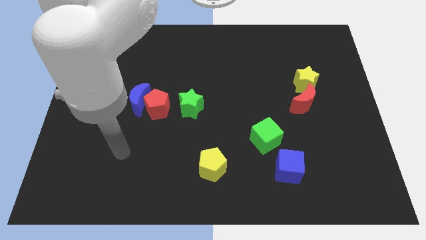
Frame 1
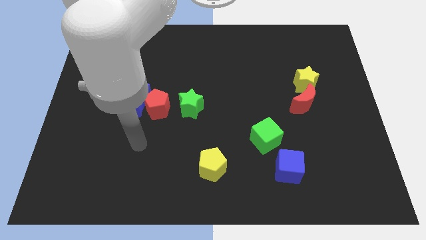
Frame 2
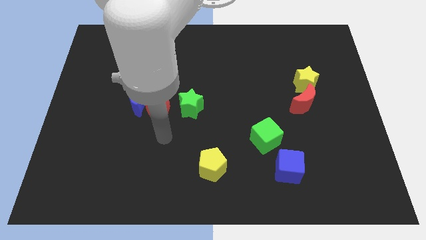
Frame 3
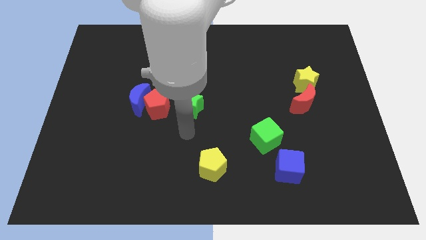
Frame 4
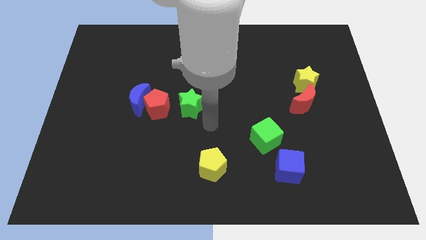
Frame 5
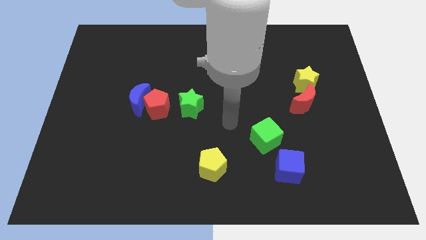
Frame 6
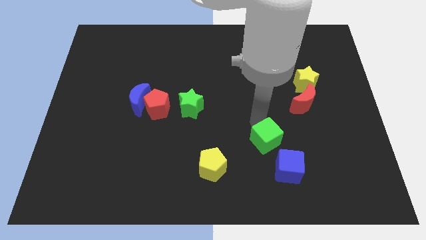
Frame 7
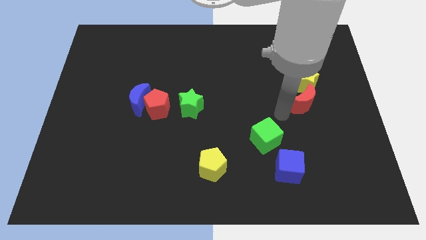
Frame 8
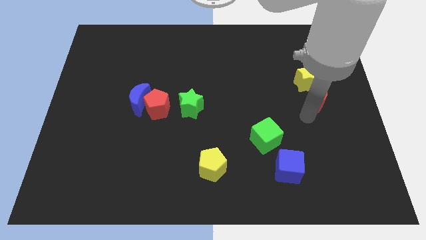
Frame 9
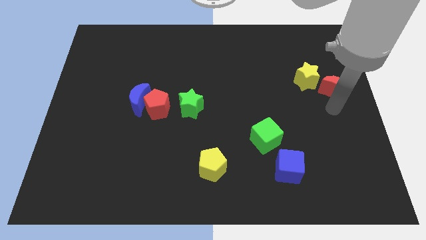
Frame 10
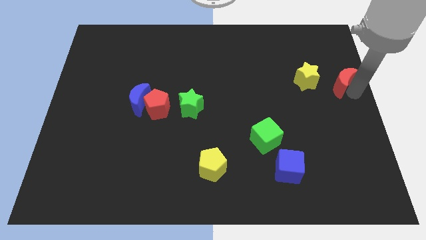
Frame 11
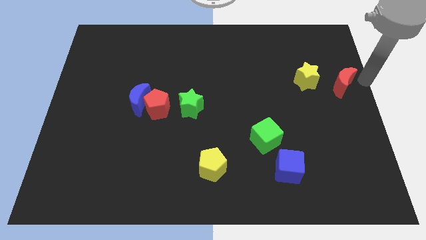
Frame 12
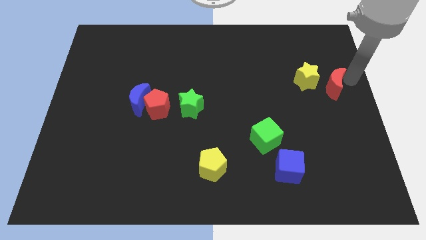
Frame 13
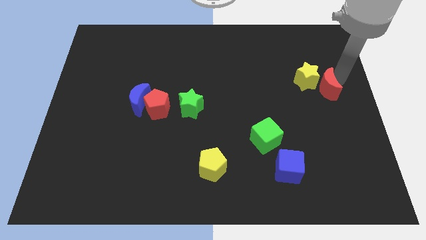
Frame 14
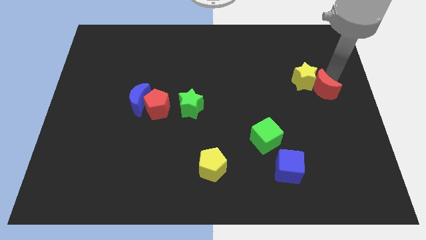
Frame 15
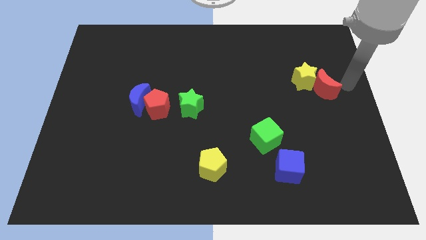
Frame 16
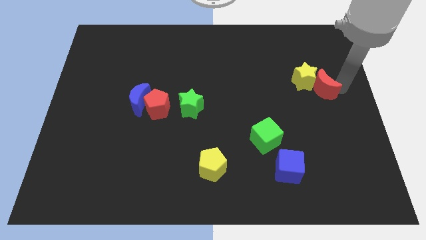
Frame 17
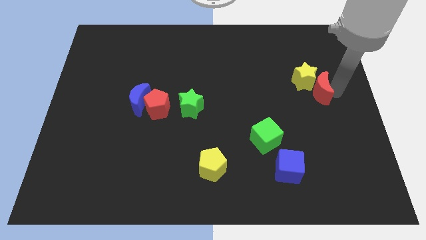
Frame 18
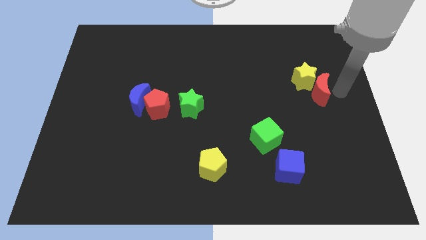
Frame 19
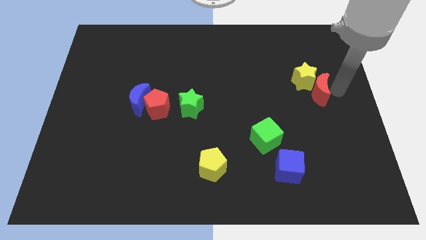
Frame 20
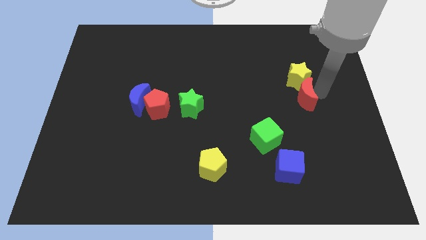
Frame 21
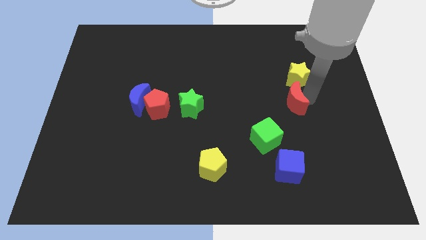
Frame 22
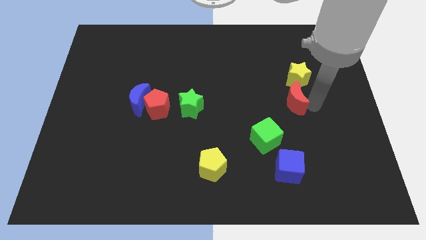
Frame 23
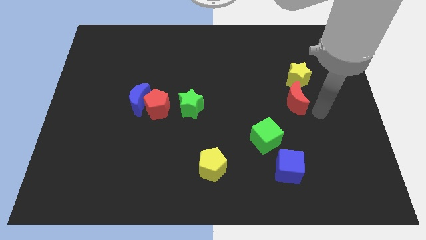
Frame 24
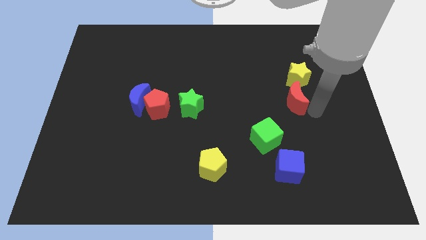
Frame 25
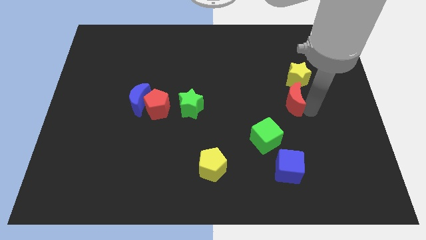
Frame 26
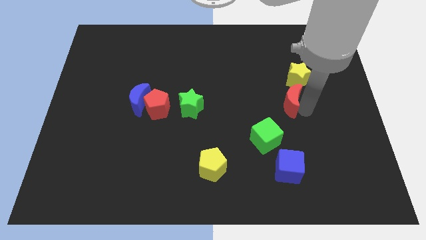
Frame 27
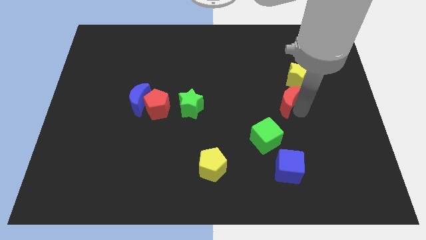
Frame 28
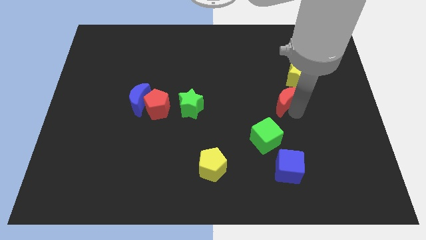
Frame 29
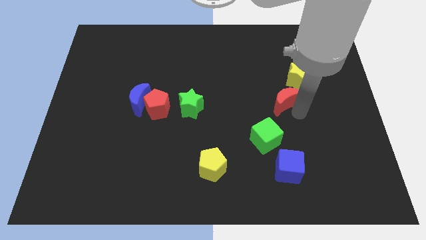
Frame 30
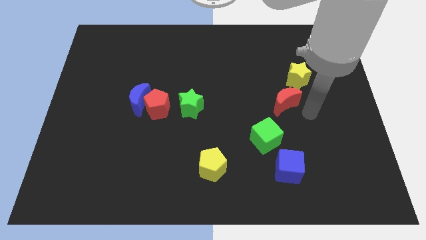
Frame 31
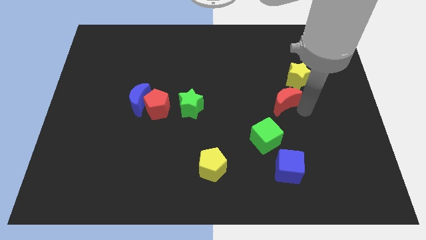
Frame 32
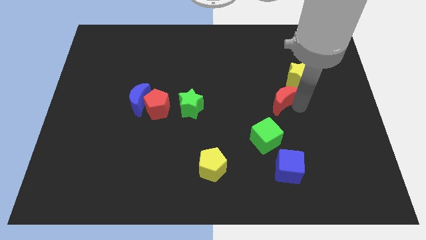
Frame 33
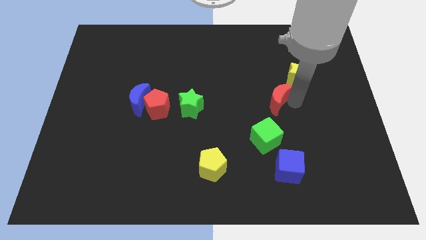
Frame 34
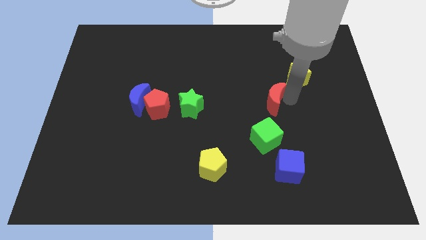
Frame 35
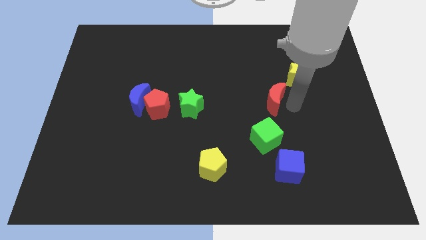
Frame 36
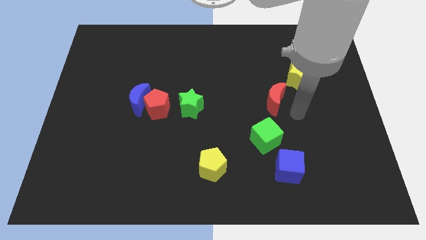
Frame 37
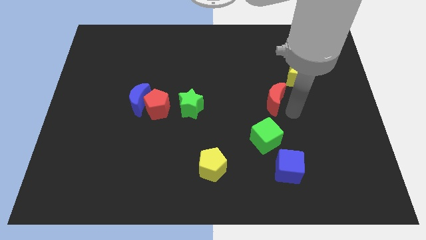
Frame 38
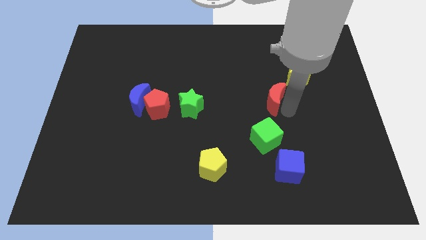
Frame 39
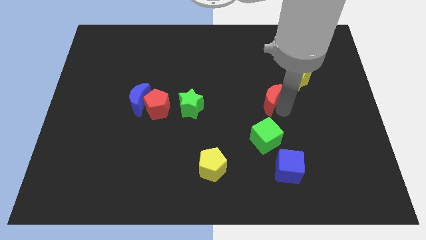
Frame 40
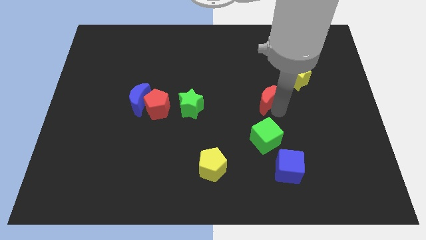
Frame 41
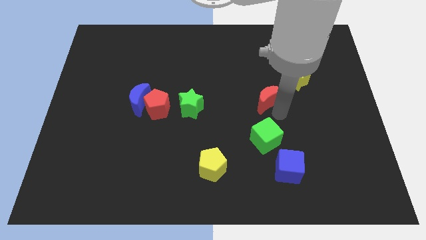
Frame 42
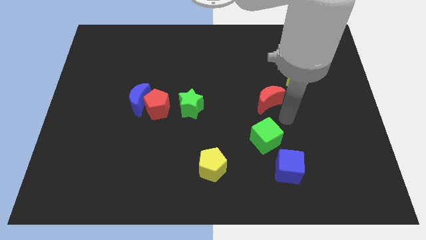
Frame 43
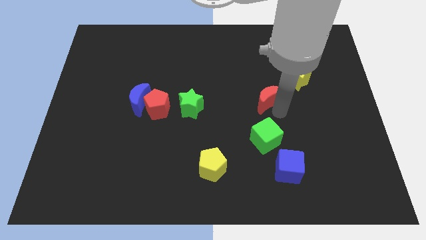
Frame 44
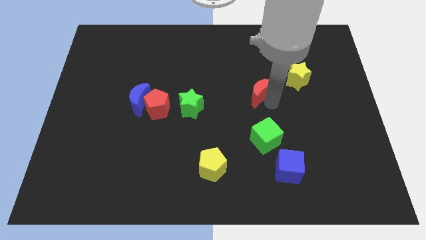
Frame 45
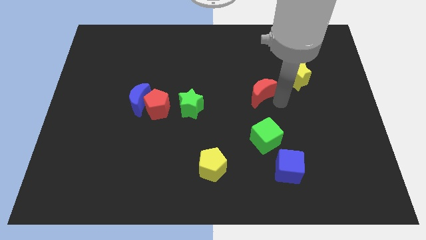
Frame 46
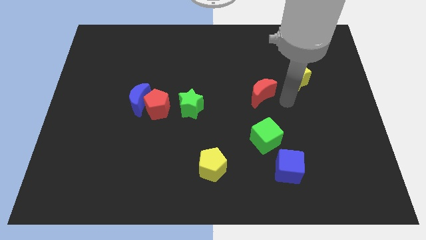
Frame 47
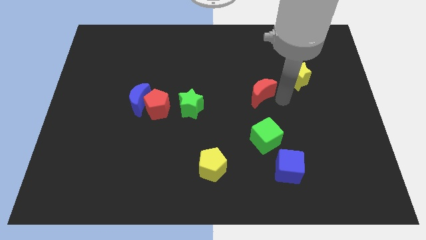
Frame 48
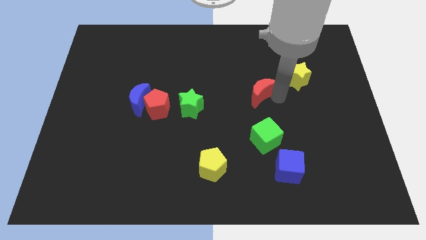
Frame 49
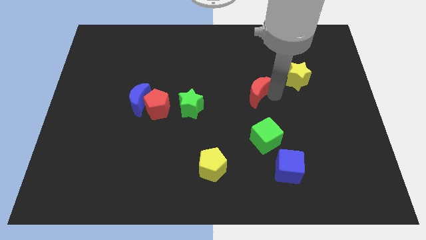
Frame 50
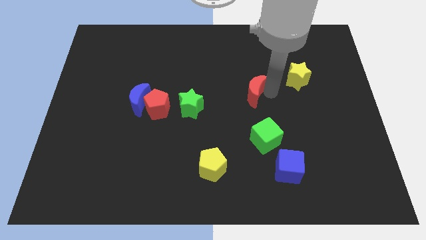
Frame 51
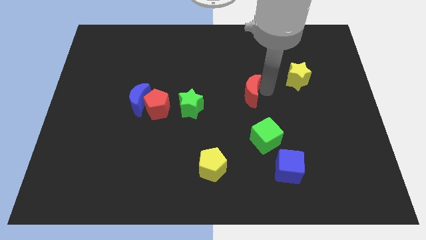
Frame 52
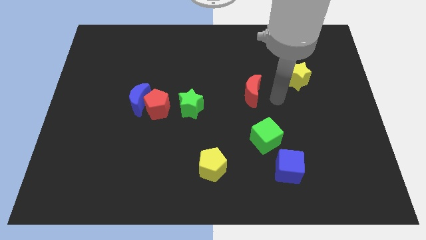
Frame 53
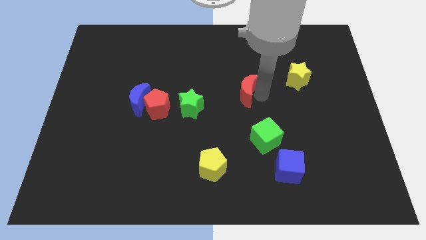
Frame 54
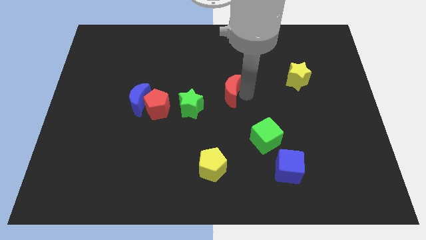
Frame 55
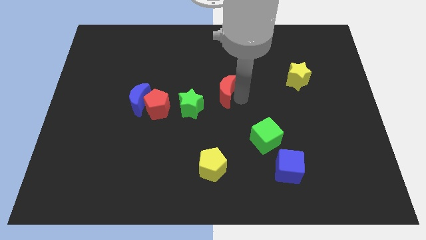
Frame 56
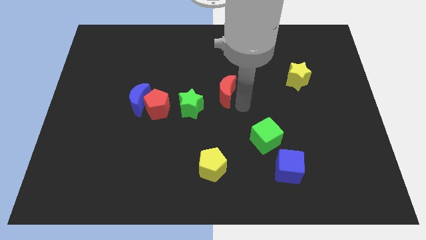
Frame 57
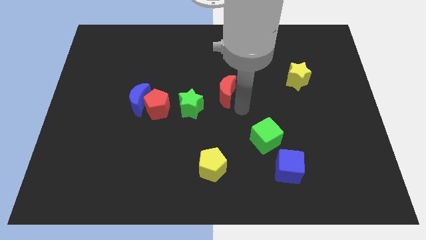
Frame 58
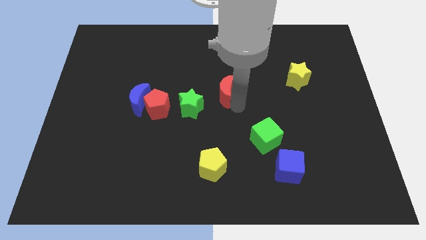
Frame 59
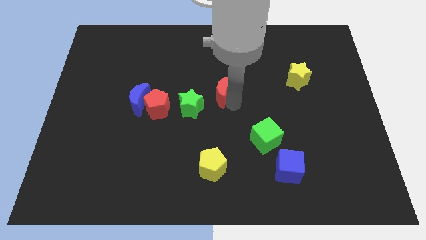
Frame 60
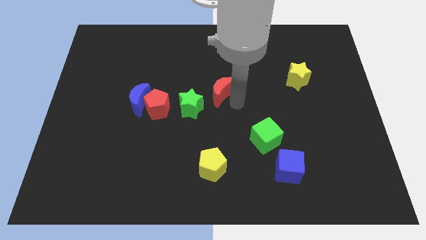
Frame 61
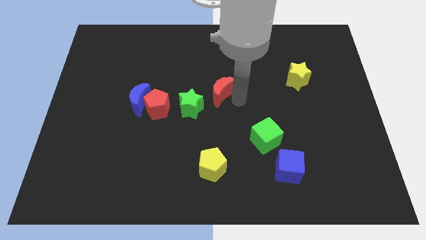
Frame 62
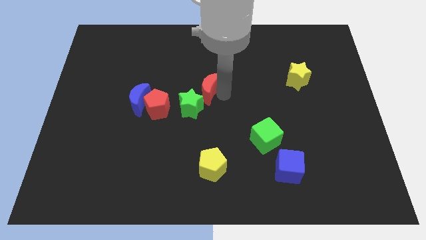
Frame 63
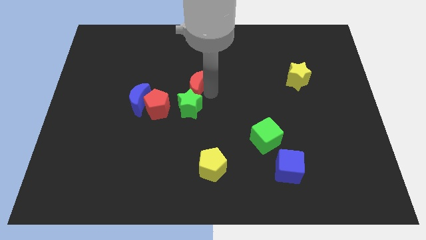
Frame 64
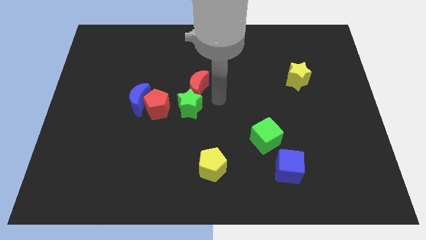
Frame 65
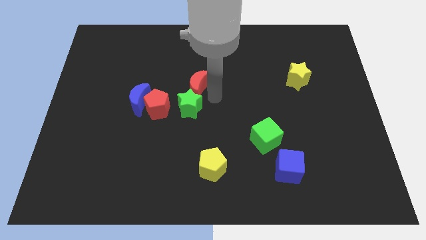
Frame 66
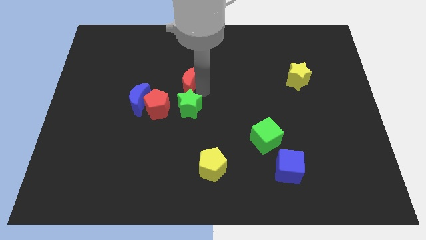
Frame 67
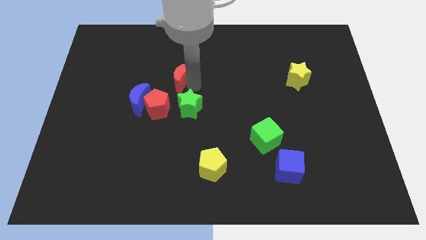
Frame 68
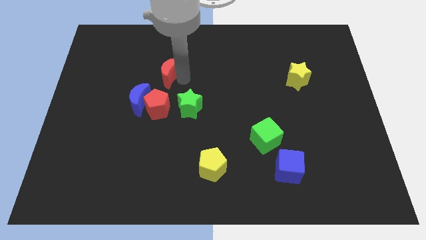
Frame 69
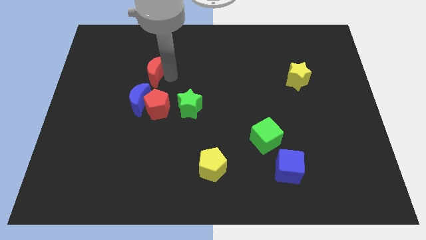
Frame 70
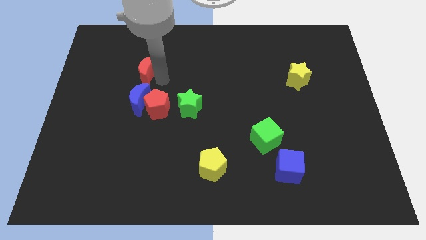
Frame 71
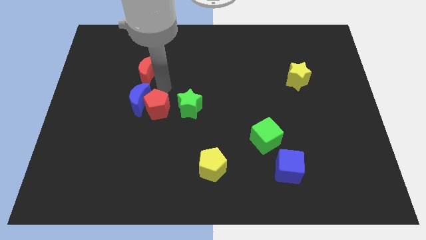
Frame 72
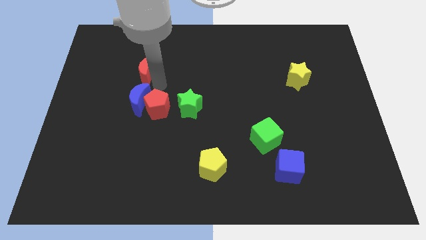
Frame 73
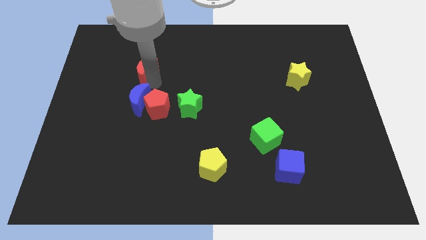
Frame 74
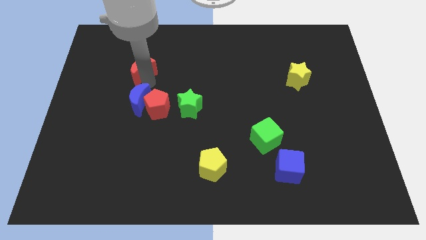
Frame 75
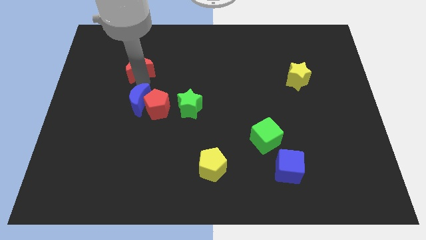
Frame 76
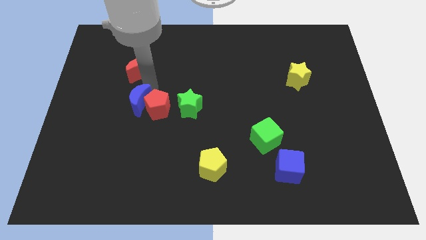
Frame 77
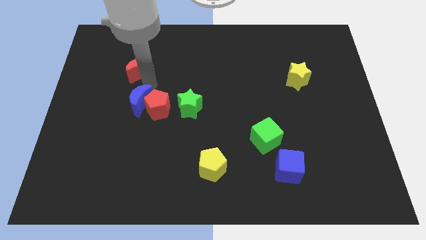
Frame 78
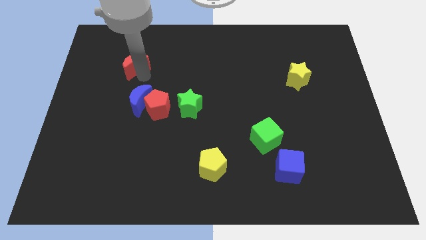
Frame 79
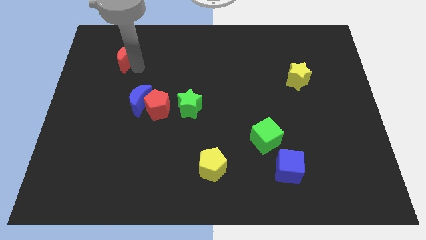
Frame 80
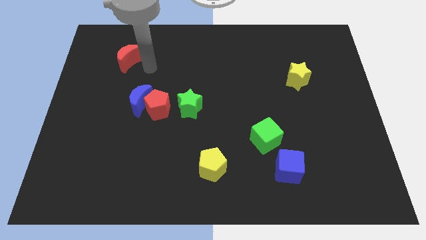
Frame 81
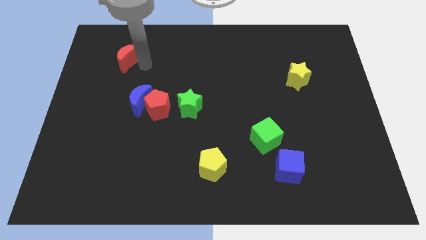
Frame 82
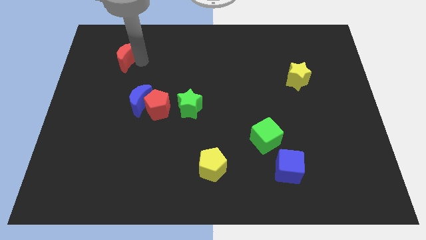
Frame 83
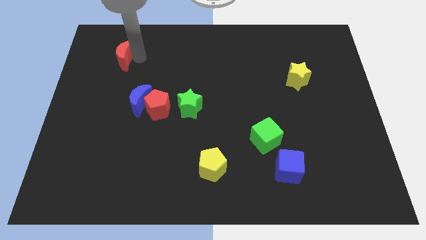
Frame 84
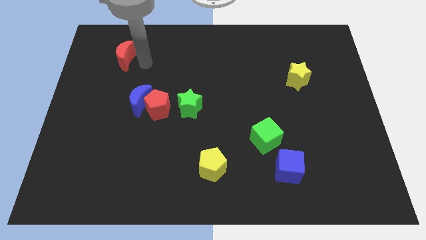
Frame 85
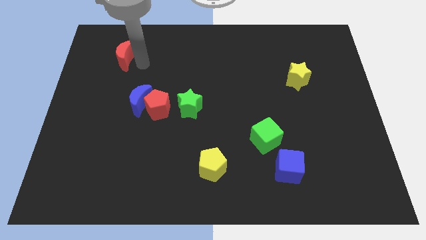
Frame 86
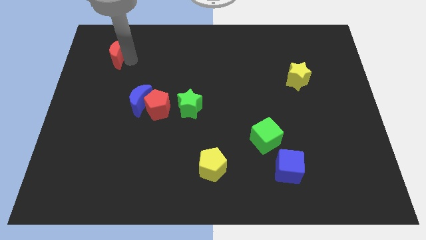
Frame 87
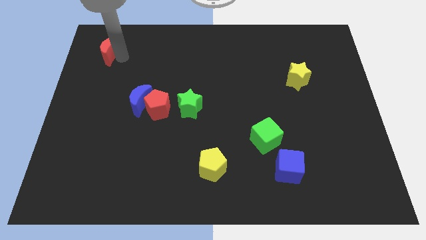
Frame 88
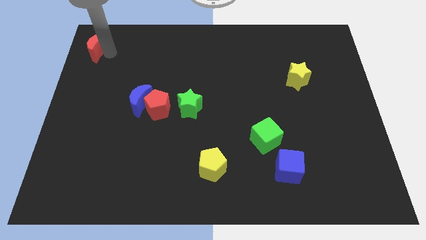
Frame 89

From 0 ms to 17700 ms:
push the red moon to the top left of the board
